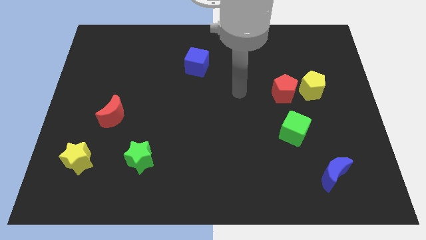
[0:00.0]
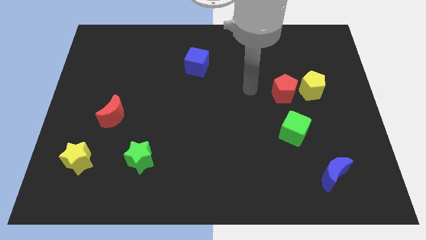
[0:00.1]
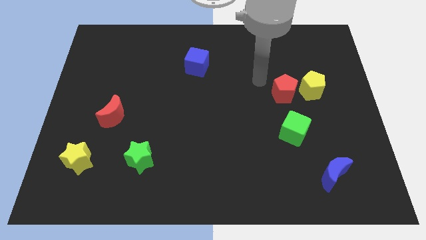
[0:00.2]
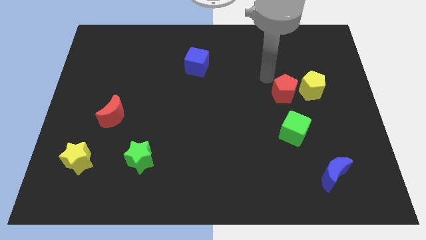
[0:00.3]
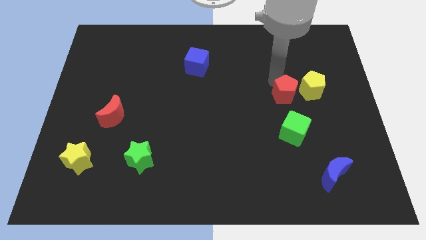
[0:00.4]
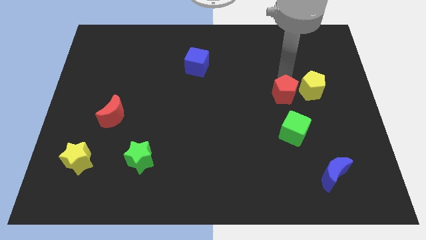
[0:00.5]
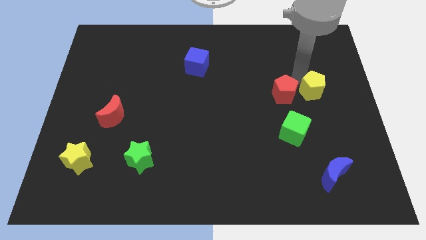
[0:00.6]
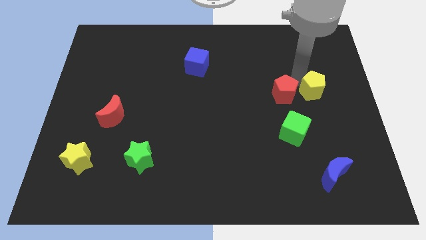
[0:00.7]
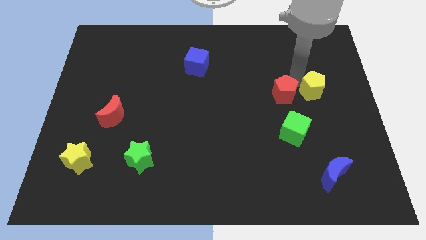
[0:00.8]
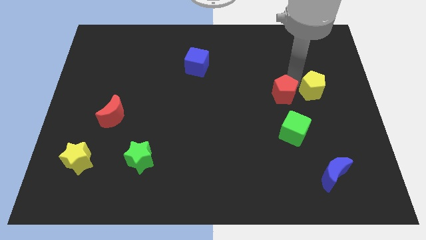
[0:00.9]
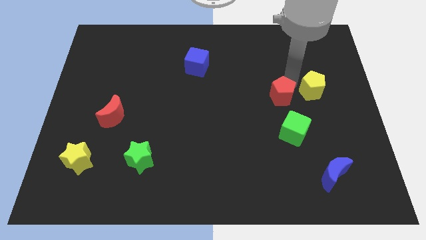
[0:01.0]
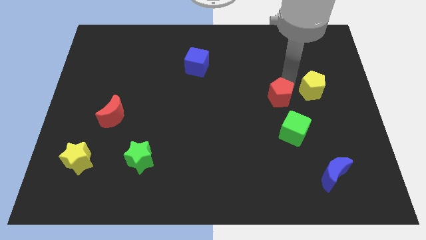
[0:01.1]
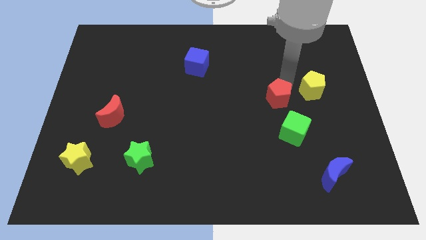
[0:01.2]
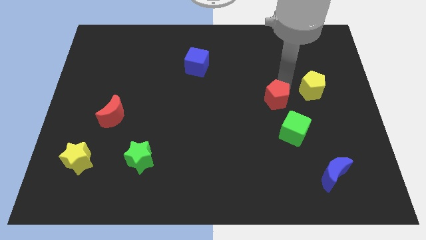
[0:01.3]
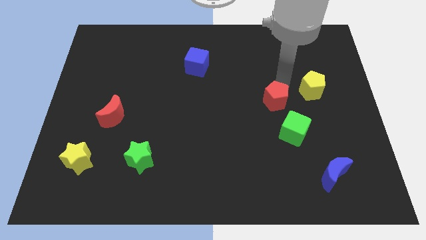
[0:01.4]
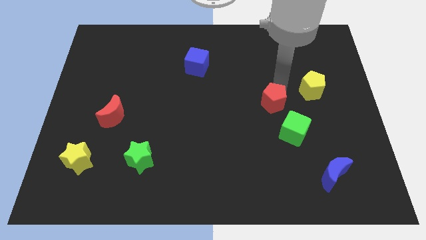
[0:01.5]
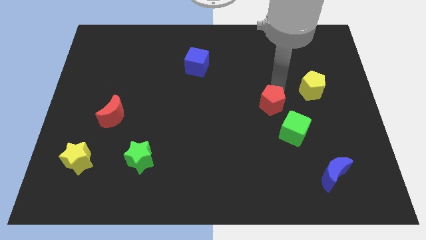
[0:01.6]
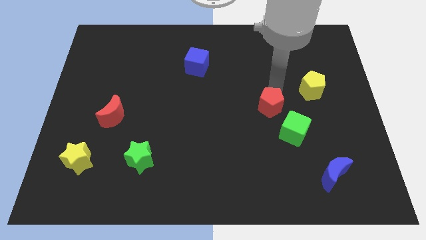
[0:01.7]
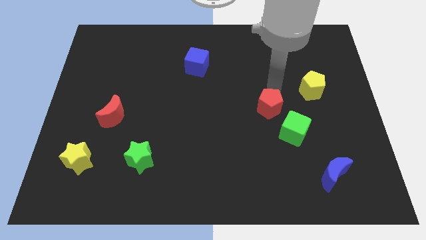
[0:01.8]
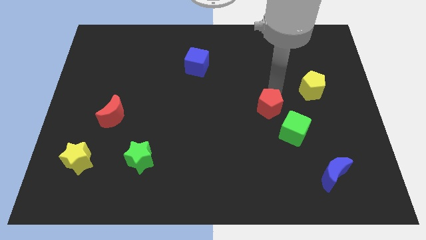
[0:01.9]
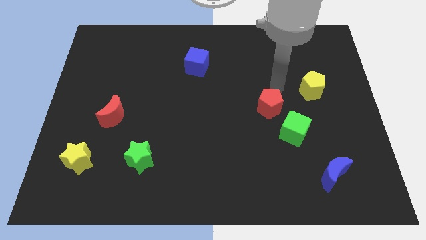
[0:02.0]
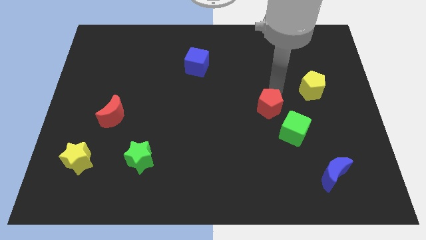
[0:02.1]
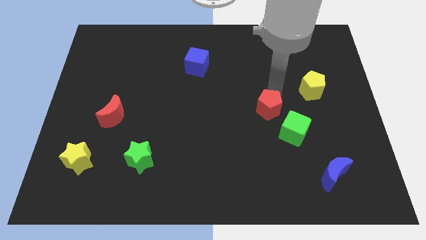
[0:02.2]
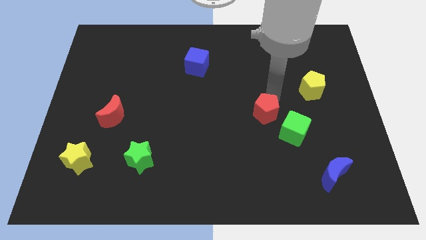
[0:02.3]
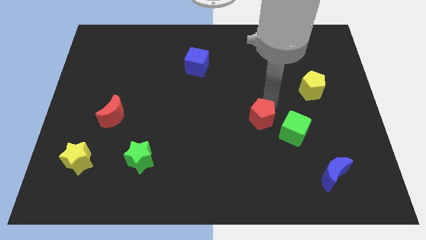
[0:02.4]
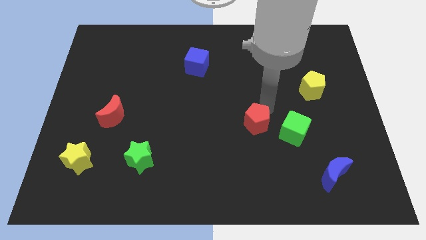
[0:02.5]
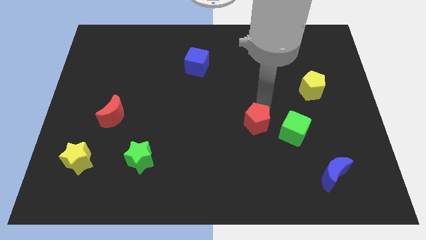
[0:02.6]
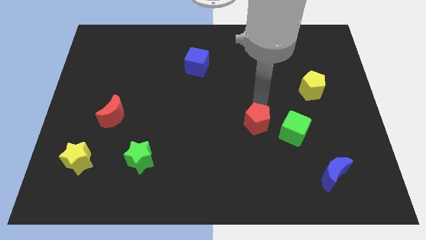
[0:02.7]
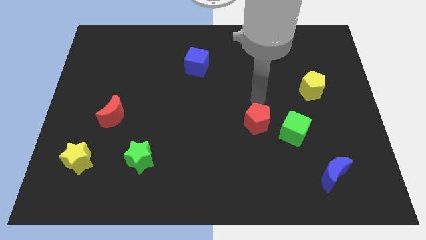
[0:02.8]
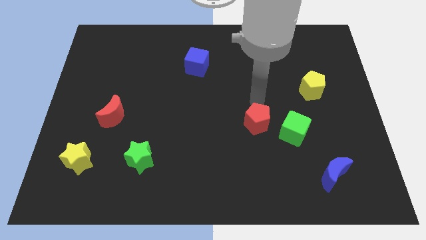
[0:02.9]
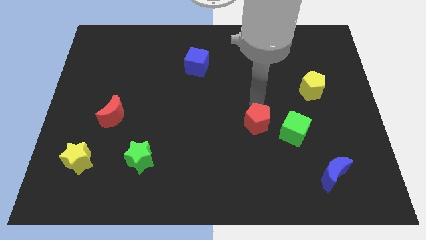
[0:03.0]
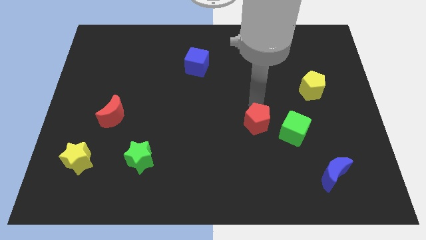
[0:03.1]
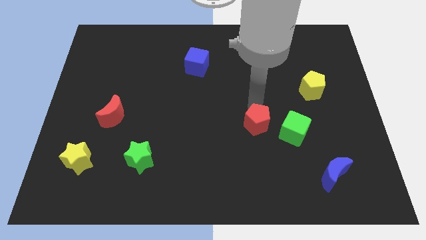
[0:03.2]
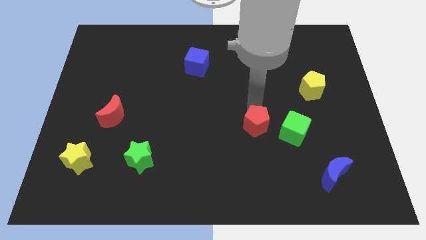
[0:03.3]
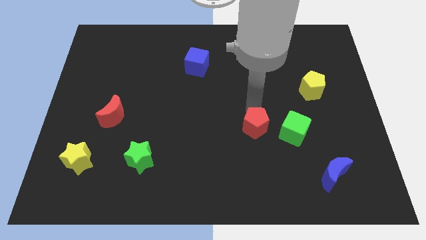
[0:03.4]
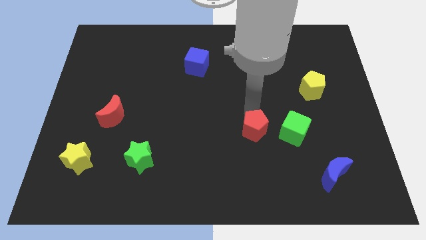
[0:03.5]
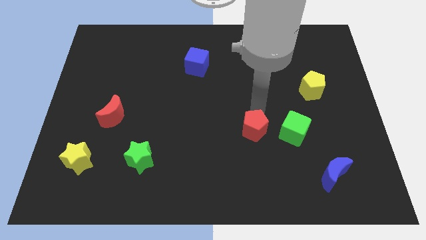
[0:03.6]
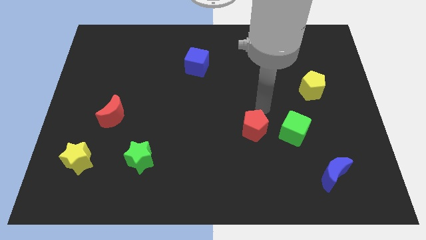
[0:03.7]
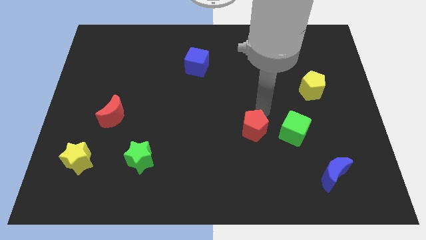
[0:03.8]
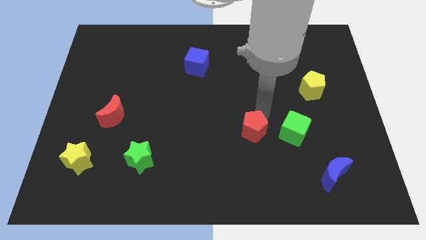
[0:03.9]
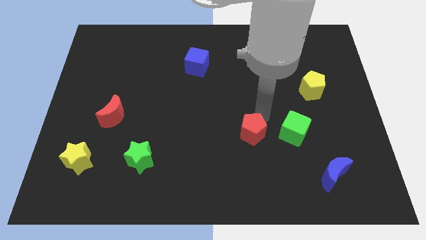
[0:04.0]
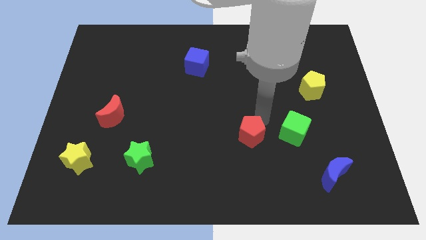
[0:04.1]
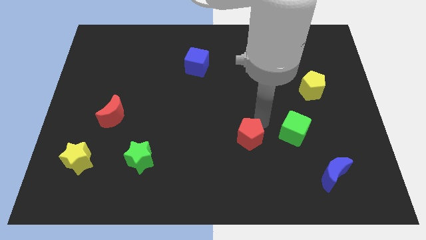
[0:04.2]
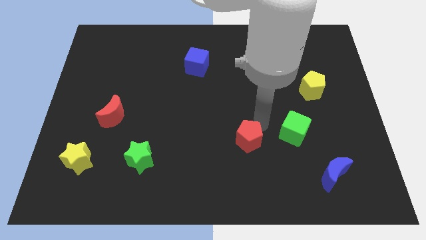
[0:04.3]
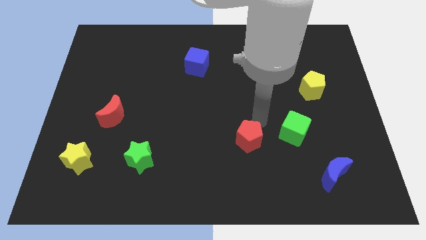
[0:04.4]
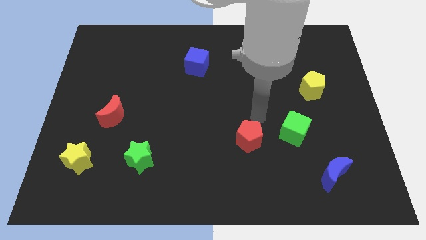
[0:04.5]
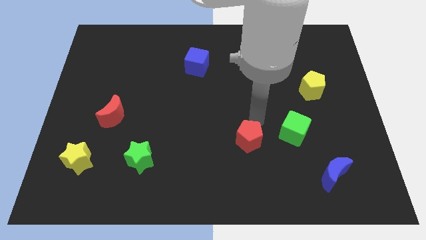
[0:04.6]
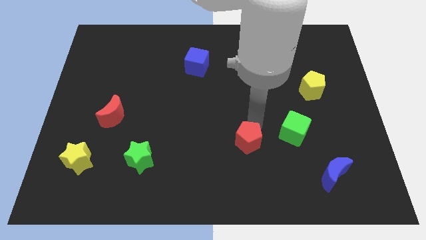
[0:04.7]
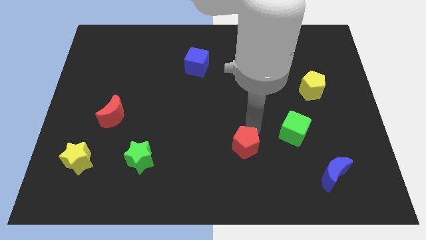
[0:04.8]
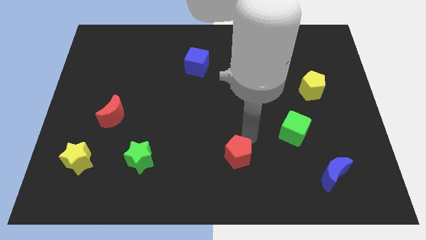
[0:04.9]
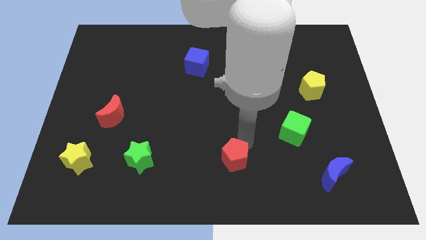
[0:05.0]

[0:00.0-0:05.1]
slide the red pentagon to the bottom

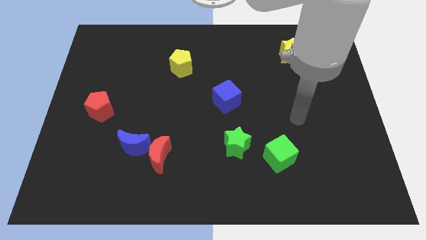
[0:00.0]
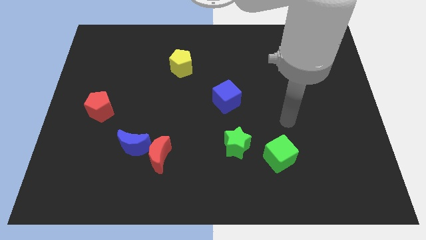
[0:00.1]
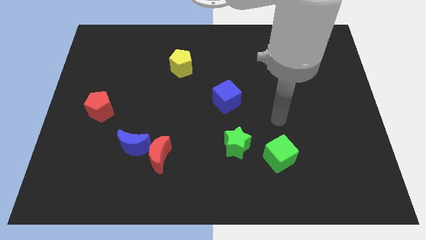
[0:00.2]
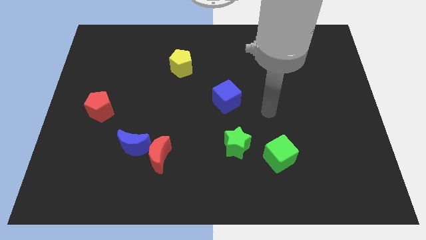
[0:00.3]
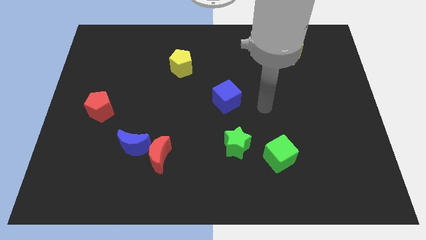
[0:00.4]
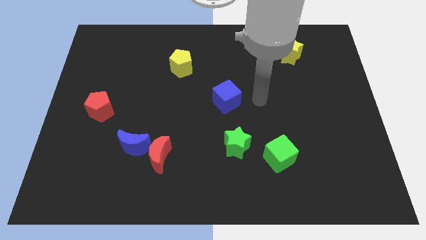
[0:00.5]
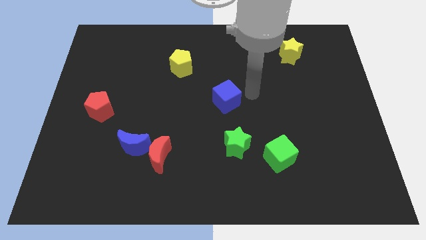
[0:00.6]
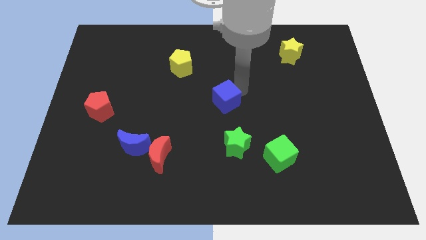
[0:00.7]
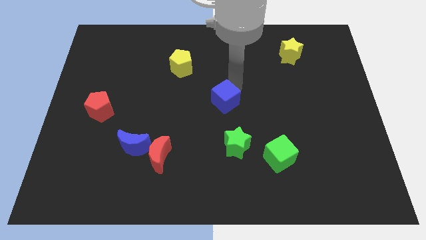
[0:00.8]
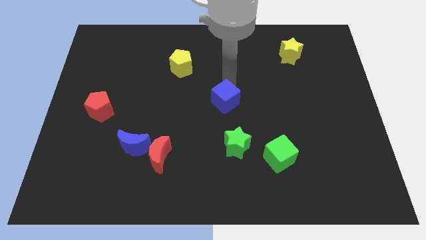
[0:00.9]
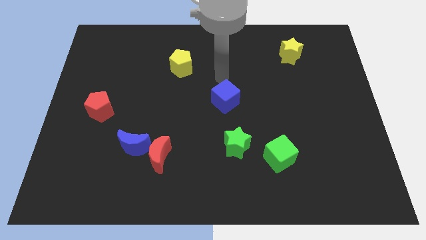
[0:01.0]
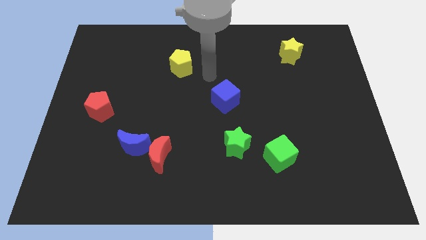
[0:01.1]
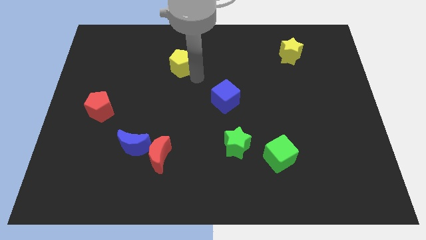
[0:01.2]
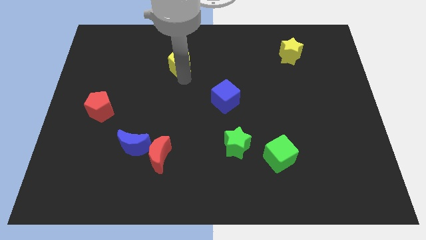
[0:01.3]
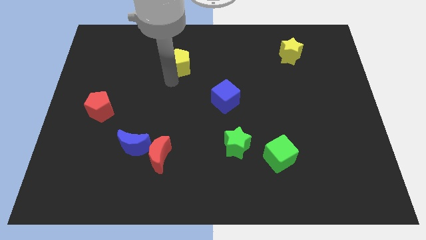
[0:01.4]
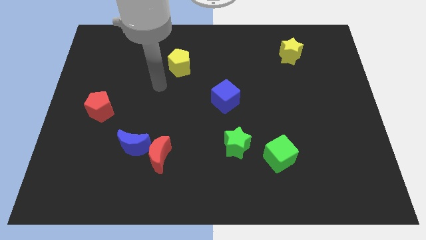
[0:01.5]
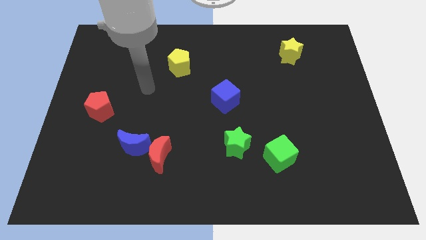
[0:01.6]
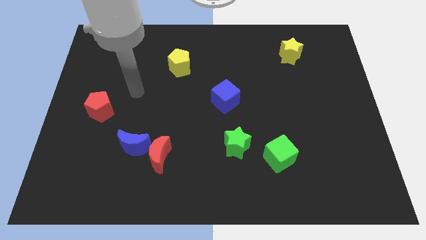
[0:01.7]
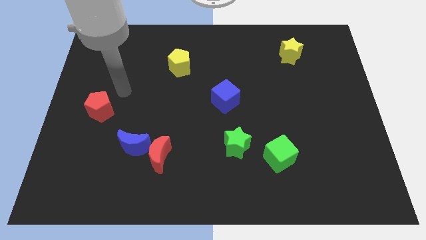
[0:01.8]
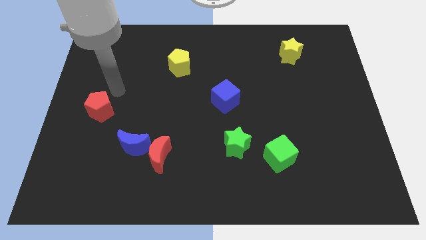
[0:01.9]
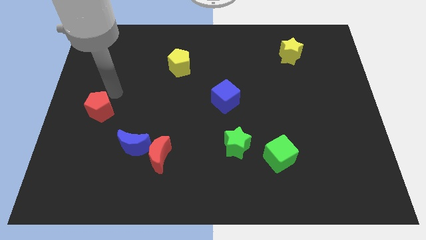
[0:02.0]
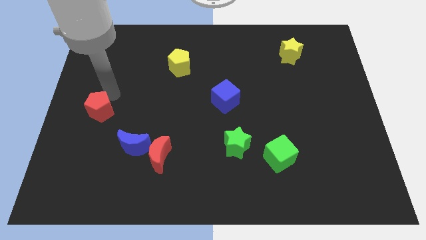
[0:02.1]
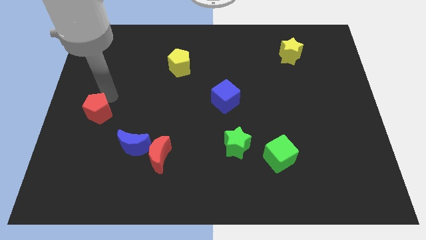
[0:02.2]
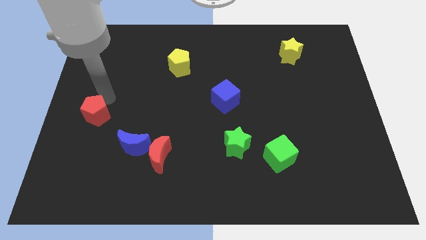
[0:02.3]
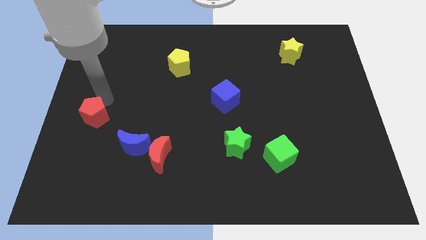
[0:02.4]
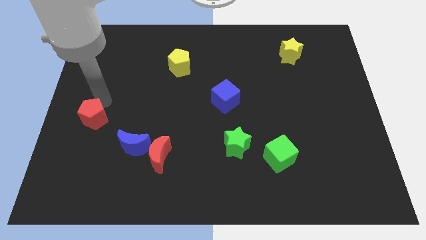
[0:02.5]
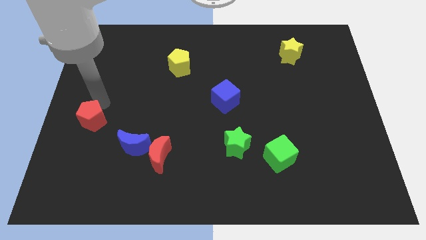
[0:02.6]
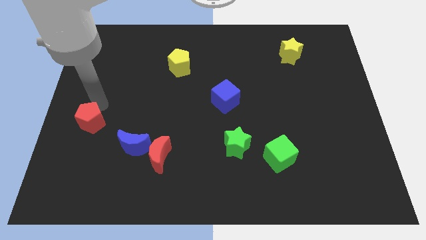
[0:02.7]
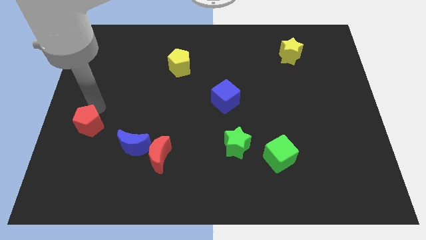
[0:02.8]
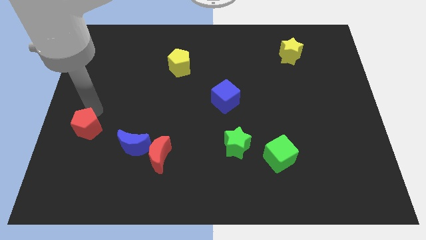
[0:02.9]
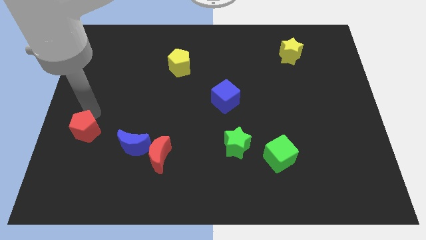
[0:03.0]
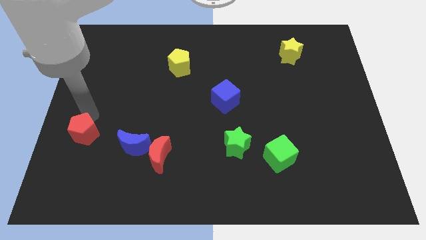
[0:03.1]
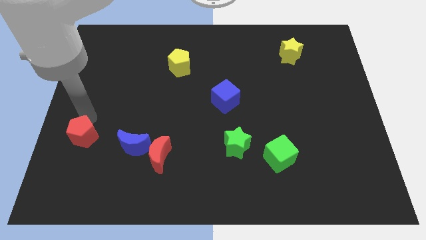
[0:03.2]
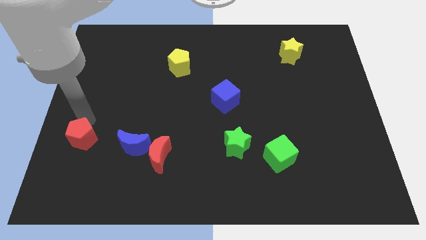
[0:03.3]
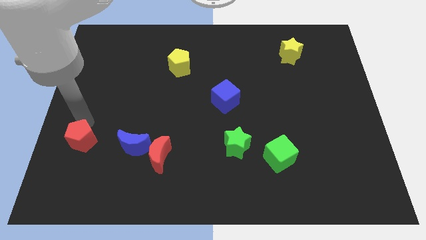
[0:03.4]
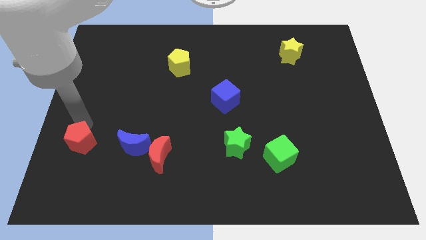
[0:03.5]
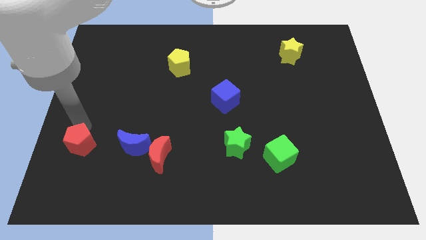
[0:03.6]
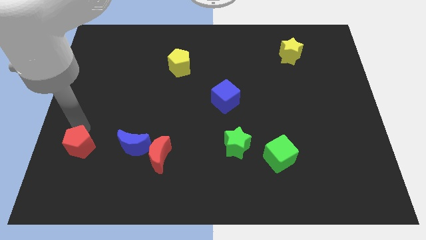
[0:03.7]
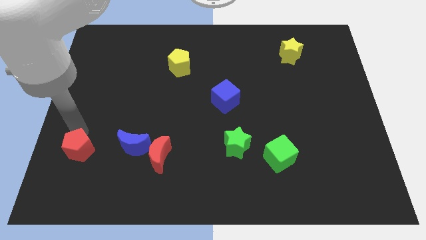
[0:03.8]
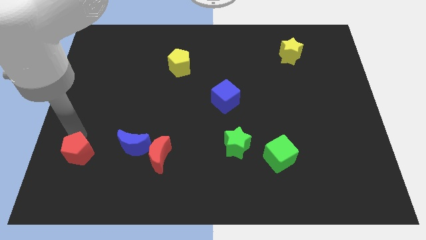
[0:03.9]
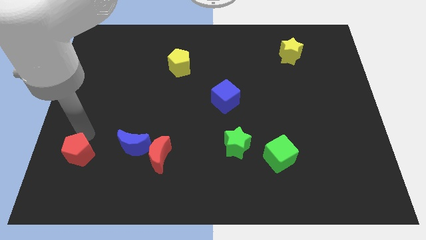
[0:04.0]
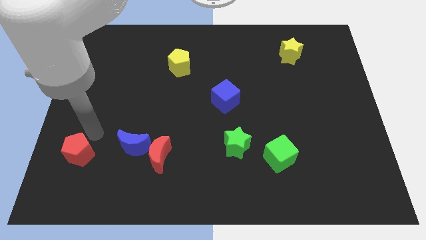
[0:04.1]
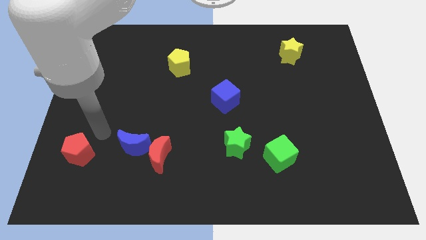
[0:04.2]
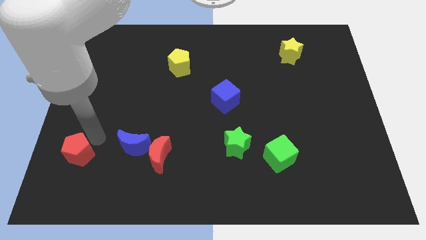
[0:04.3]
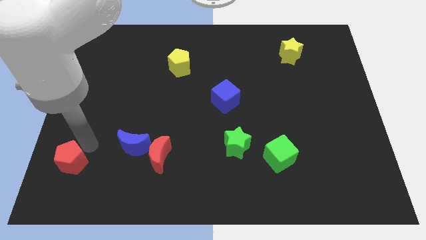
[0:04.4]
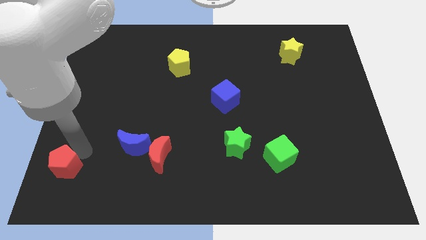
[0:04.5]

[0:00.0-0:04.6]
slide the red pentagon to the bottom left of the board
